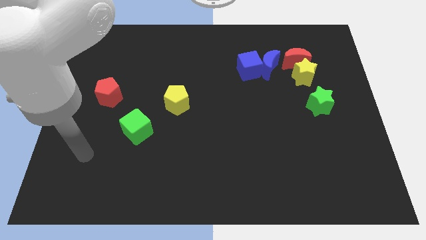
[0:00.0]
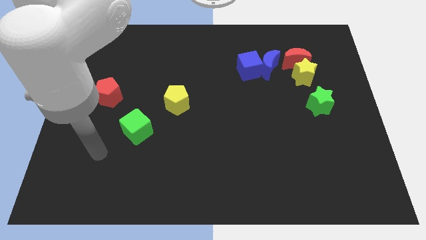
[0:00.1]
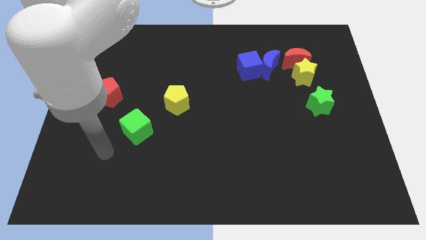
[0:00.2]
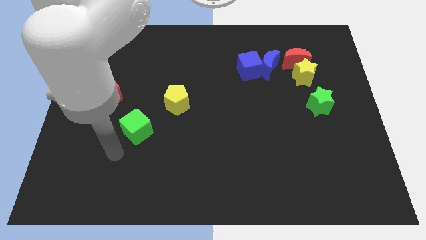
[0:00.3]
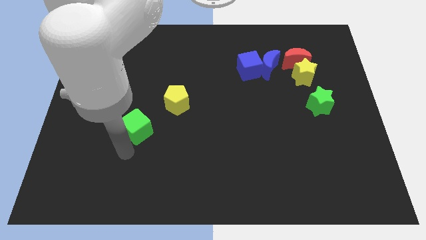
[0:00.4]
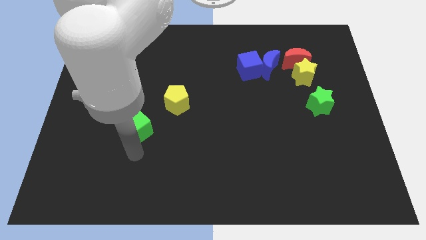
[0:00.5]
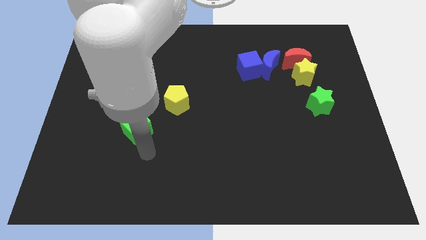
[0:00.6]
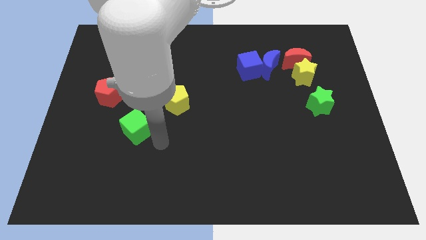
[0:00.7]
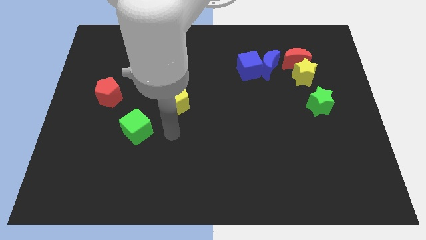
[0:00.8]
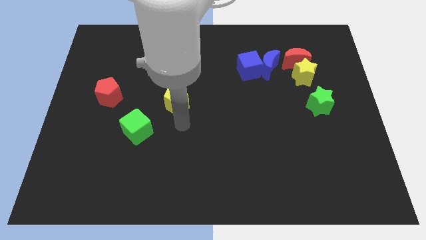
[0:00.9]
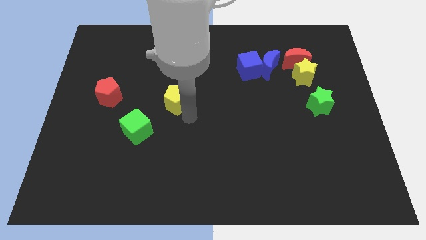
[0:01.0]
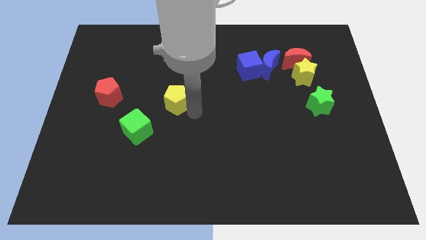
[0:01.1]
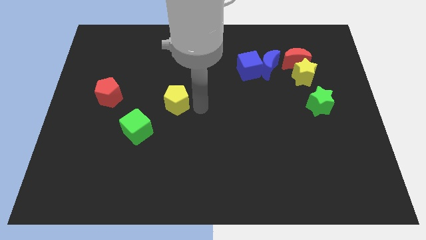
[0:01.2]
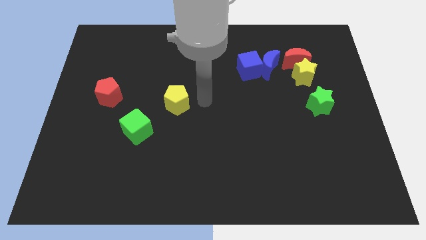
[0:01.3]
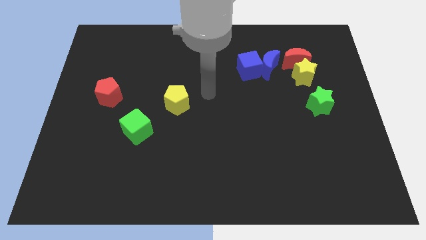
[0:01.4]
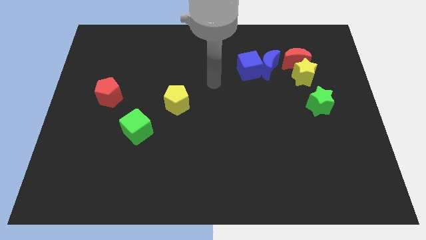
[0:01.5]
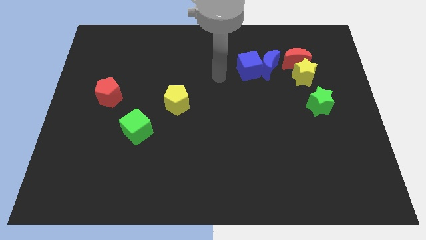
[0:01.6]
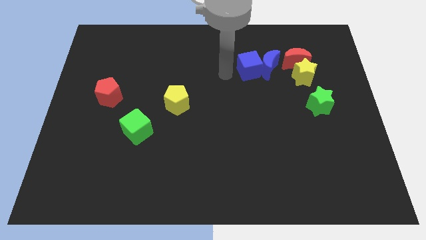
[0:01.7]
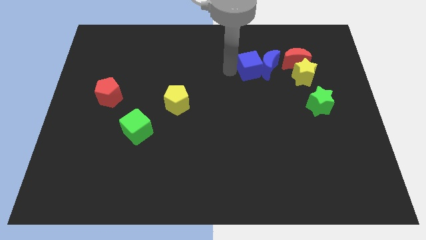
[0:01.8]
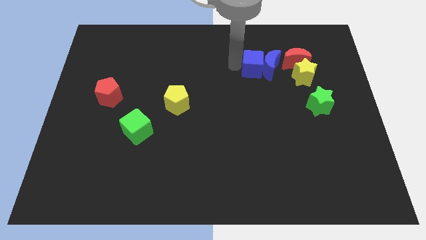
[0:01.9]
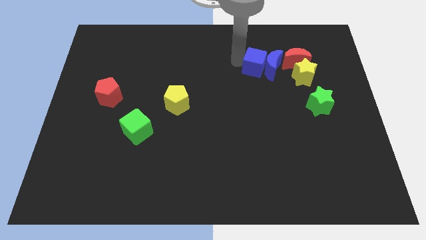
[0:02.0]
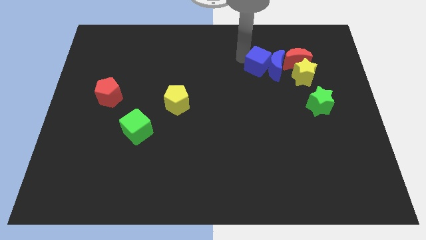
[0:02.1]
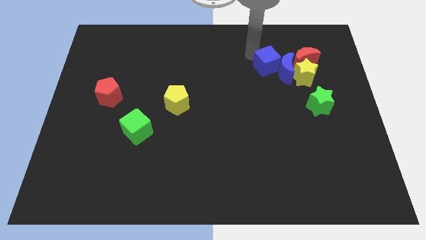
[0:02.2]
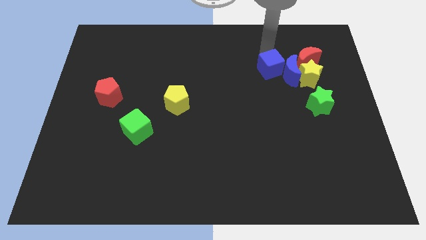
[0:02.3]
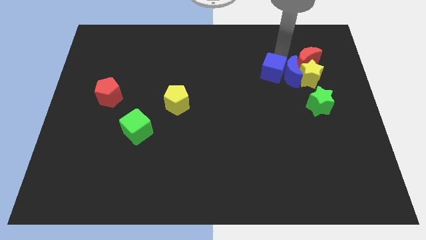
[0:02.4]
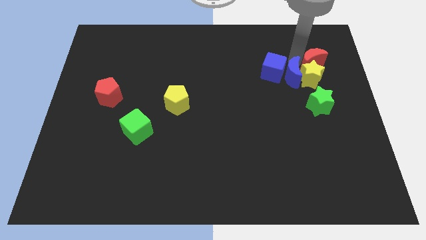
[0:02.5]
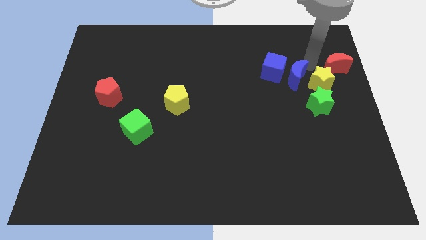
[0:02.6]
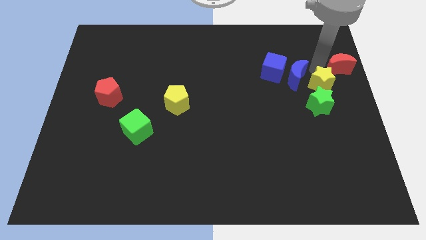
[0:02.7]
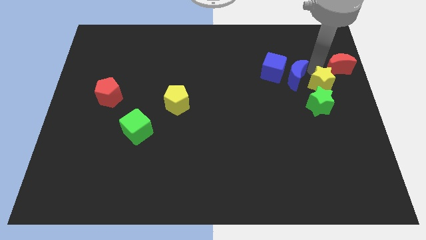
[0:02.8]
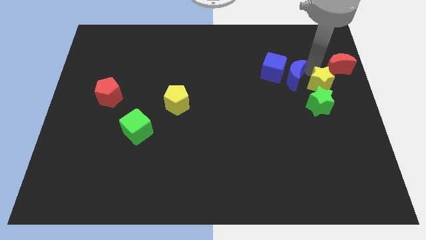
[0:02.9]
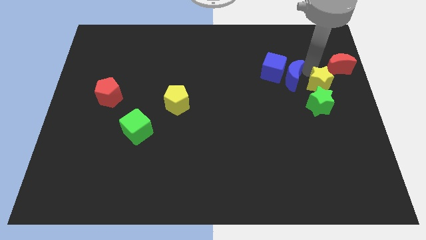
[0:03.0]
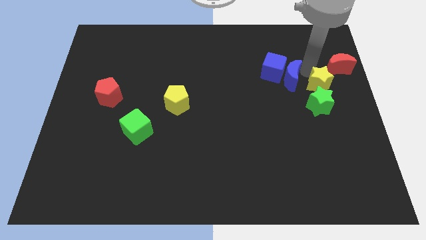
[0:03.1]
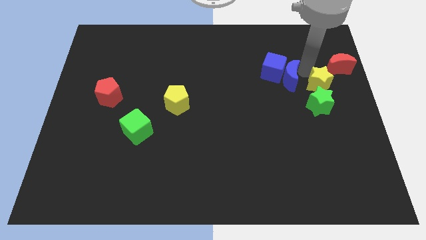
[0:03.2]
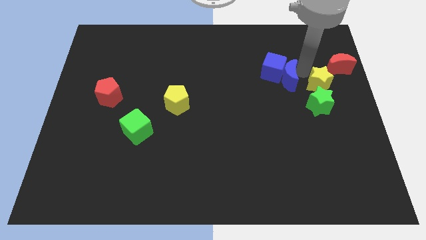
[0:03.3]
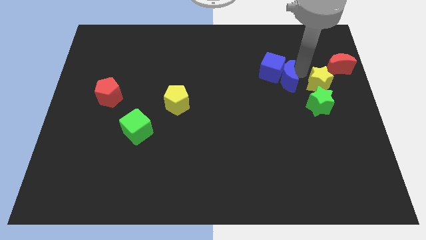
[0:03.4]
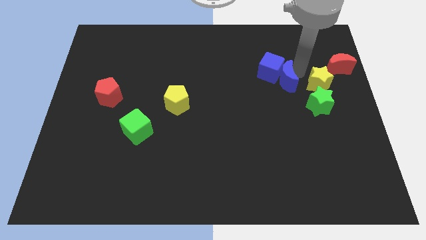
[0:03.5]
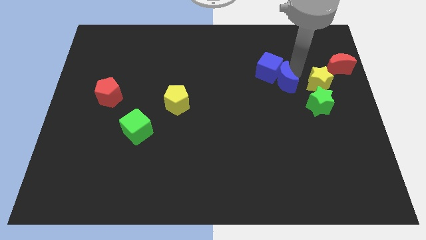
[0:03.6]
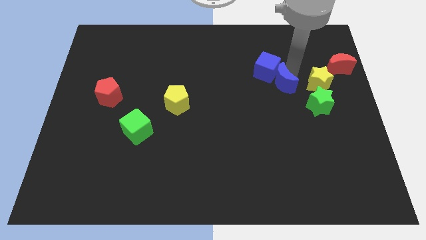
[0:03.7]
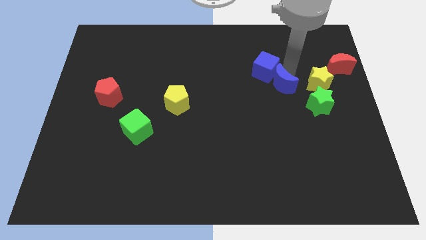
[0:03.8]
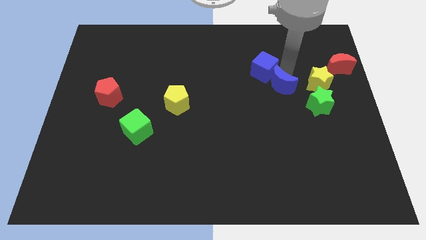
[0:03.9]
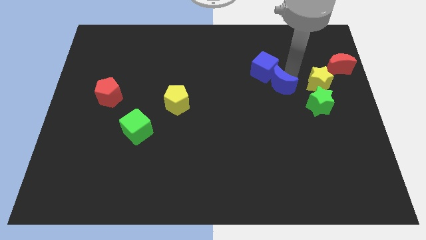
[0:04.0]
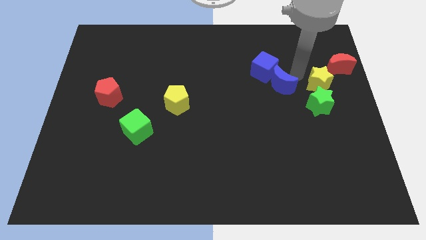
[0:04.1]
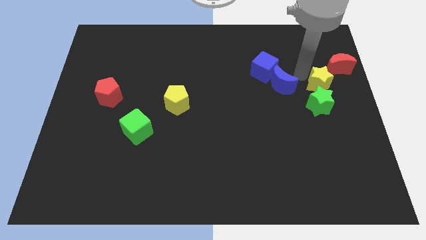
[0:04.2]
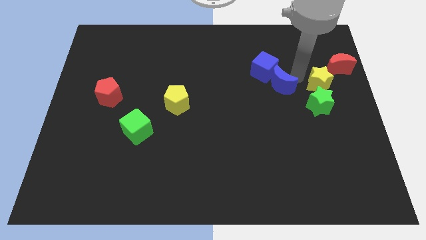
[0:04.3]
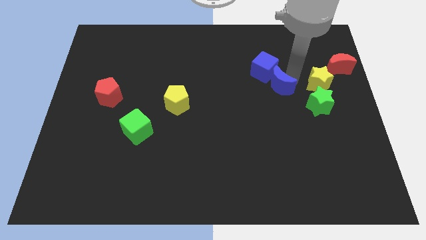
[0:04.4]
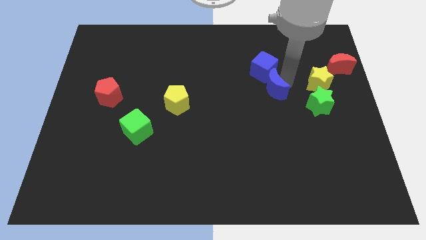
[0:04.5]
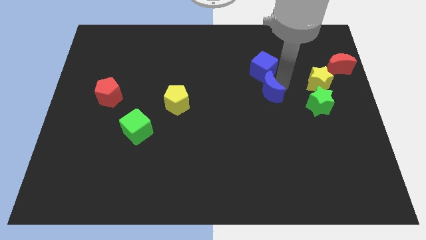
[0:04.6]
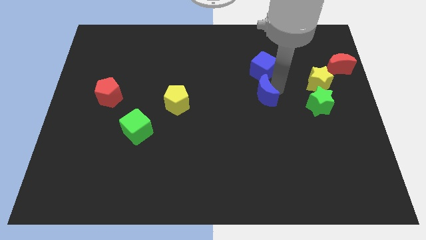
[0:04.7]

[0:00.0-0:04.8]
put the blue moon to the center

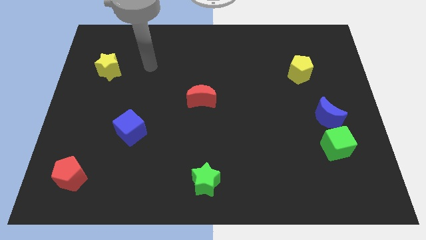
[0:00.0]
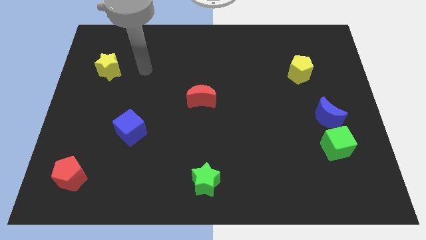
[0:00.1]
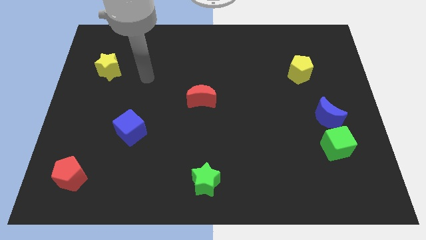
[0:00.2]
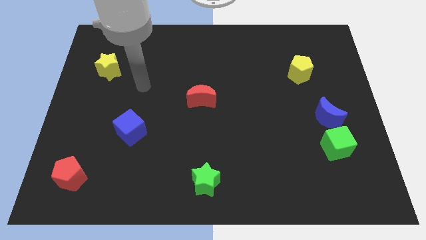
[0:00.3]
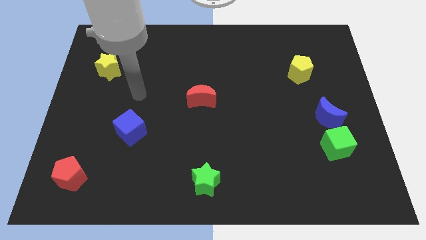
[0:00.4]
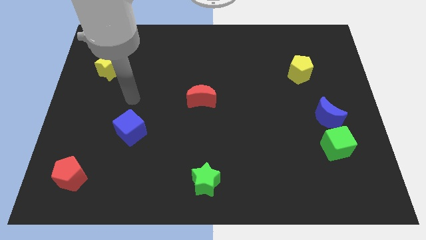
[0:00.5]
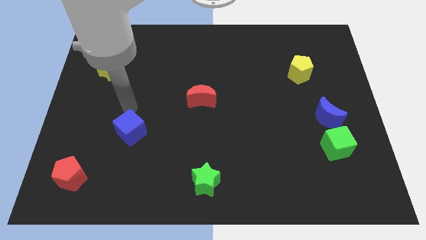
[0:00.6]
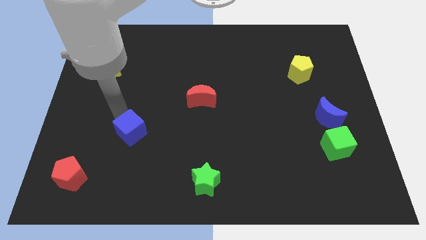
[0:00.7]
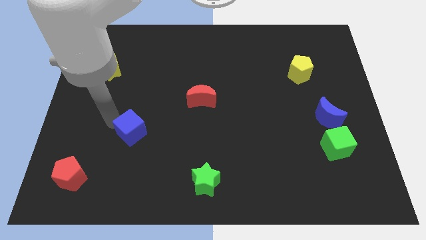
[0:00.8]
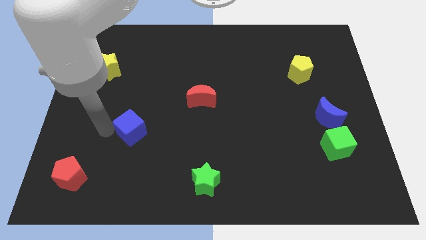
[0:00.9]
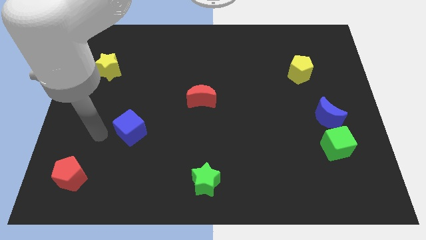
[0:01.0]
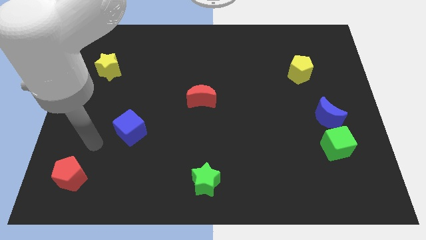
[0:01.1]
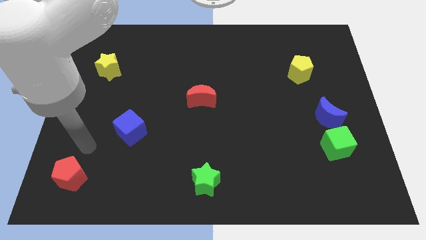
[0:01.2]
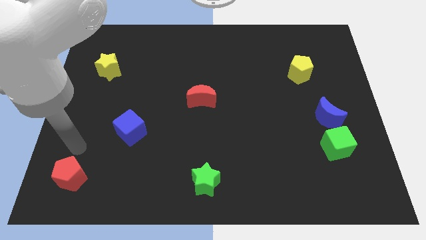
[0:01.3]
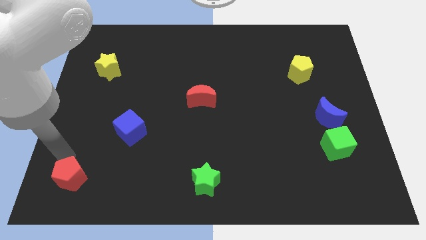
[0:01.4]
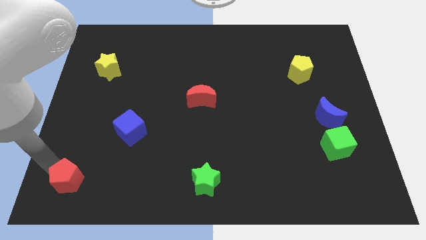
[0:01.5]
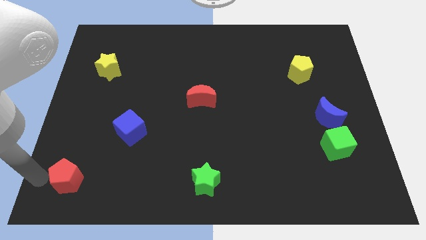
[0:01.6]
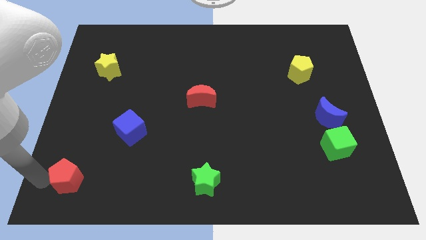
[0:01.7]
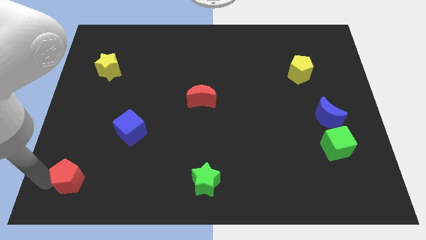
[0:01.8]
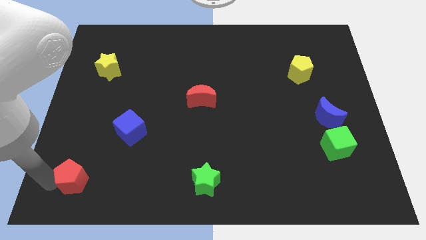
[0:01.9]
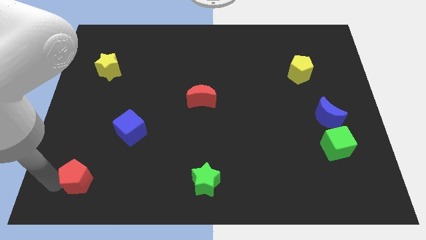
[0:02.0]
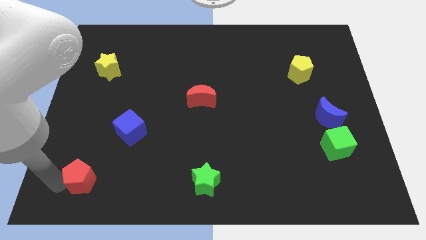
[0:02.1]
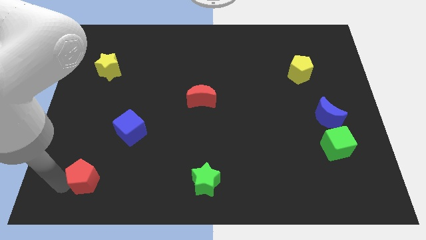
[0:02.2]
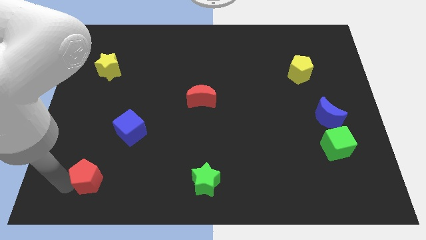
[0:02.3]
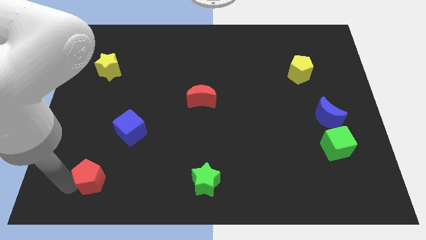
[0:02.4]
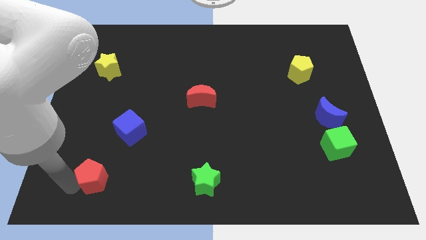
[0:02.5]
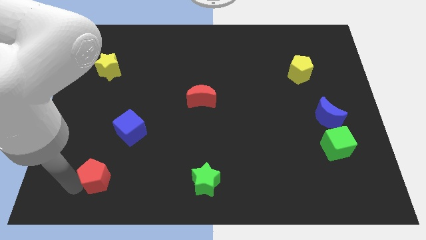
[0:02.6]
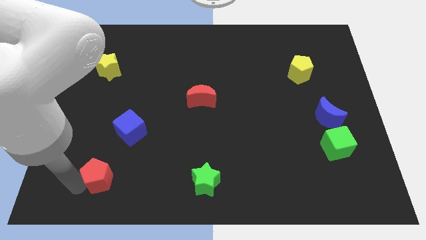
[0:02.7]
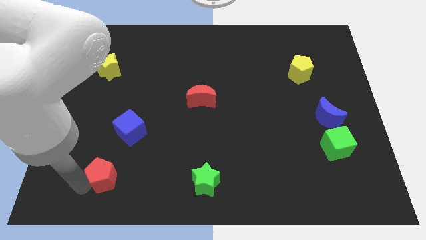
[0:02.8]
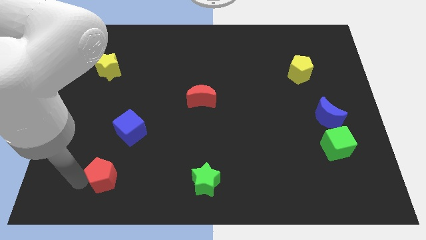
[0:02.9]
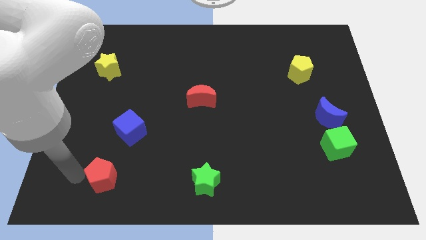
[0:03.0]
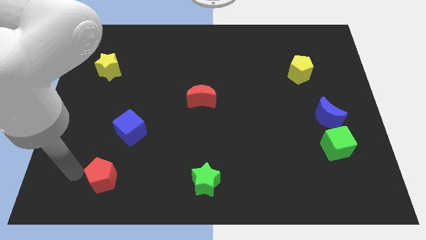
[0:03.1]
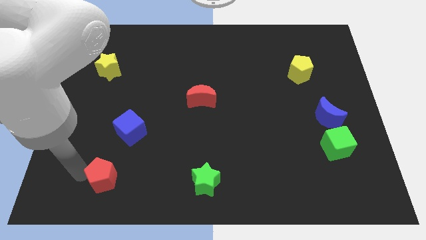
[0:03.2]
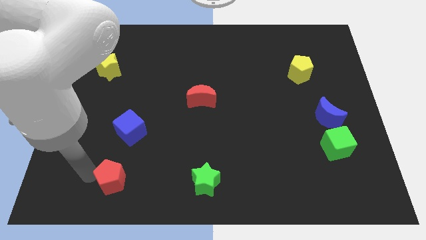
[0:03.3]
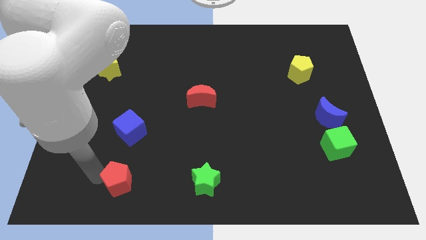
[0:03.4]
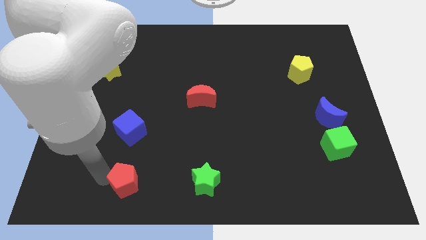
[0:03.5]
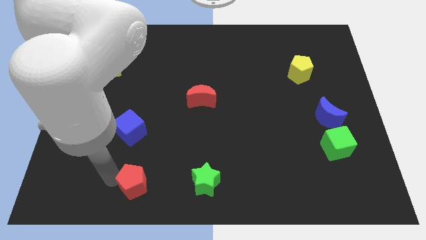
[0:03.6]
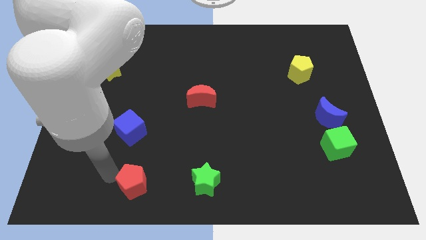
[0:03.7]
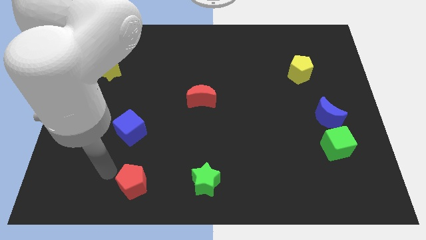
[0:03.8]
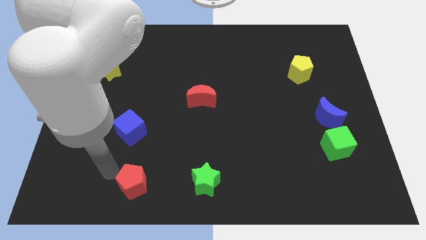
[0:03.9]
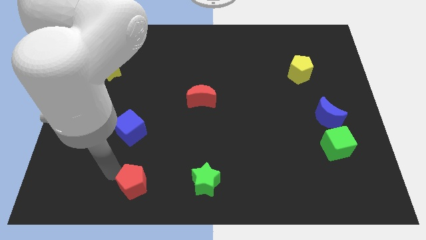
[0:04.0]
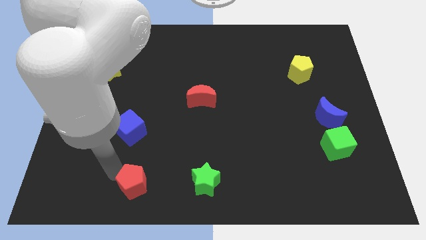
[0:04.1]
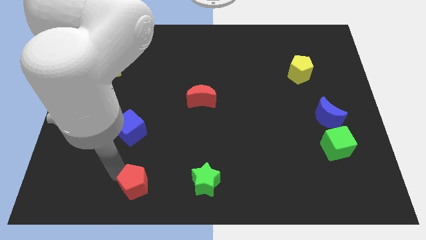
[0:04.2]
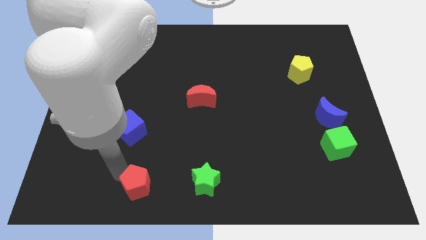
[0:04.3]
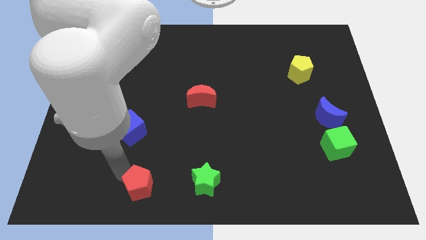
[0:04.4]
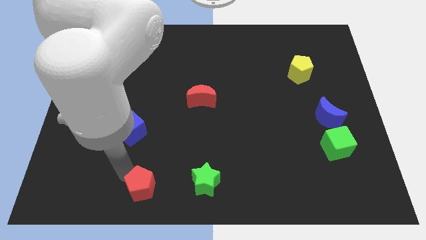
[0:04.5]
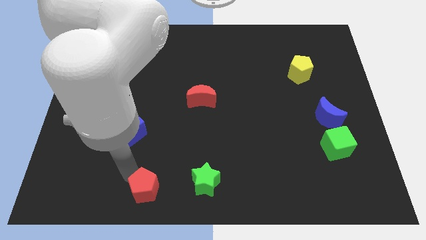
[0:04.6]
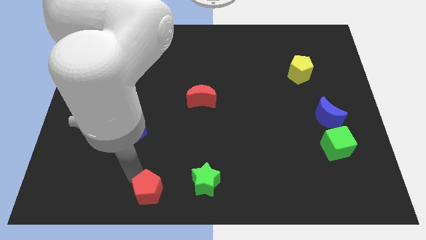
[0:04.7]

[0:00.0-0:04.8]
push the red pentagon to the bottom side
